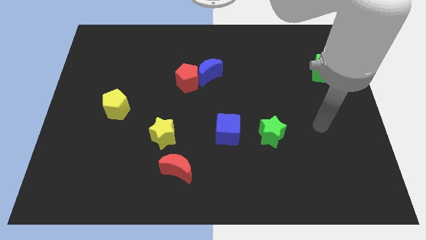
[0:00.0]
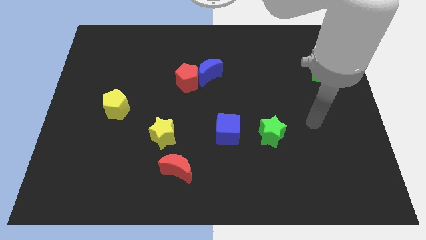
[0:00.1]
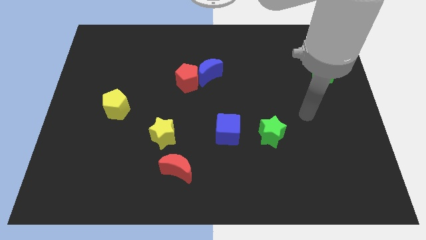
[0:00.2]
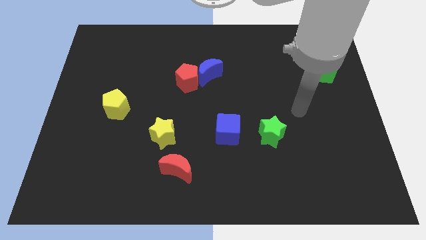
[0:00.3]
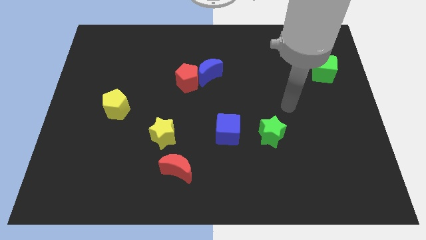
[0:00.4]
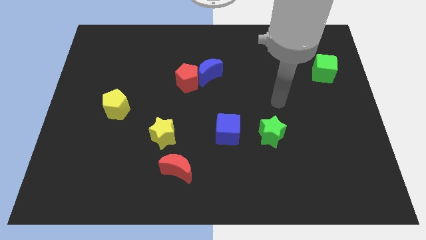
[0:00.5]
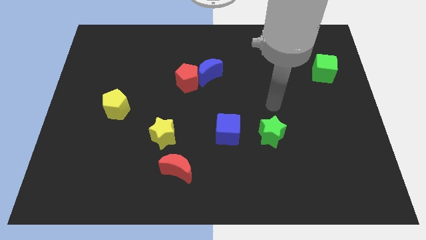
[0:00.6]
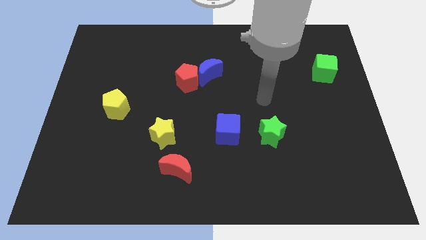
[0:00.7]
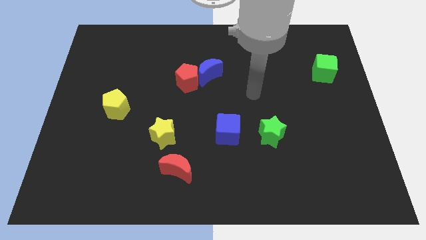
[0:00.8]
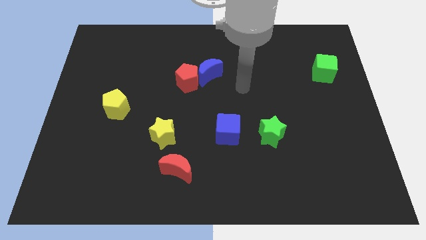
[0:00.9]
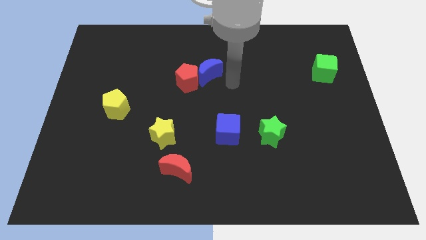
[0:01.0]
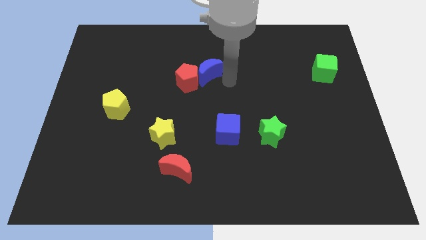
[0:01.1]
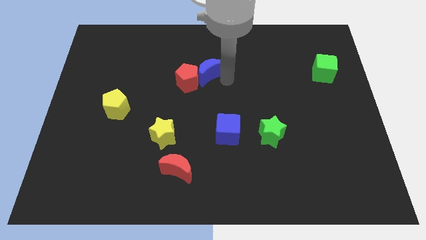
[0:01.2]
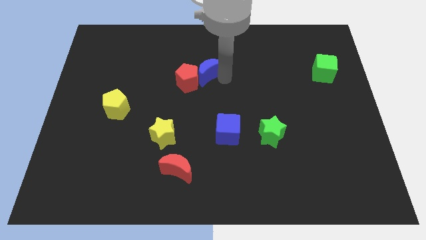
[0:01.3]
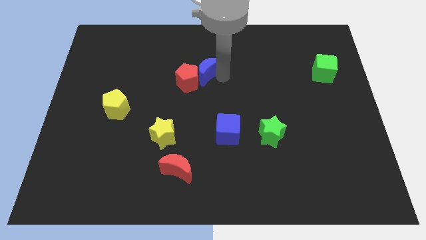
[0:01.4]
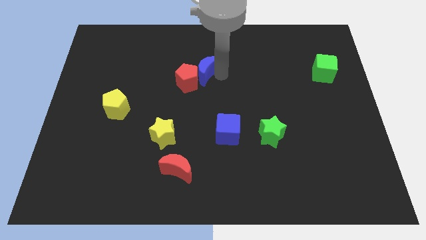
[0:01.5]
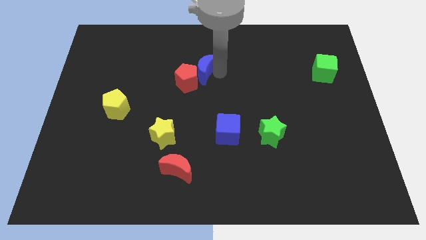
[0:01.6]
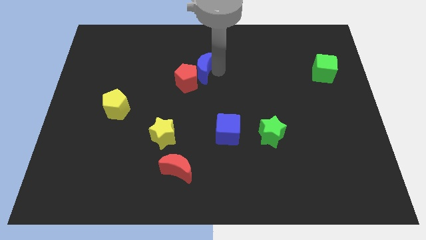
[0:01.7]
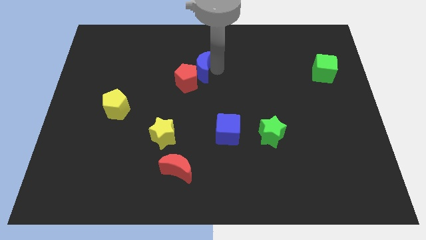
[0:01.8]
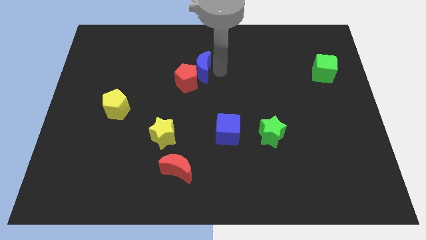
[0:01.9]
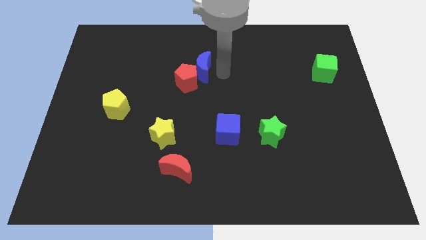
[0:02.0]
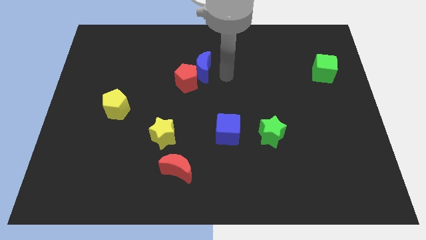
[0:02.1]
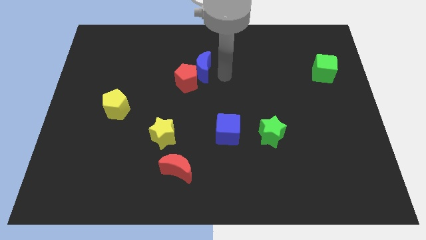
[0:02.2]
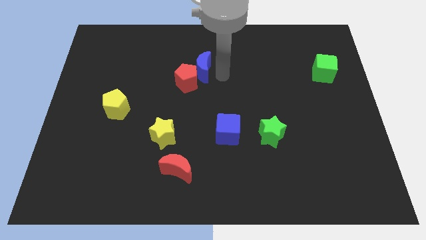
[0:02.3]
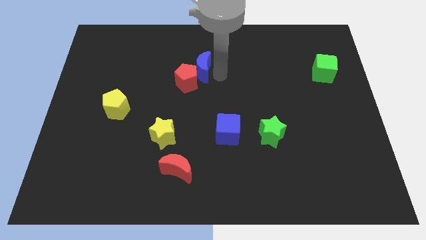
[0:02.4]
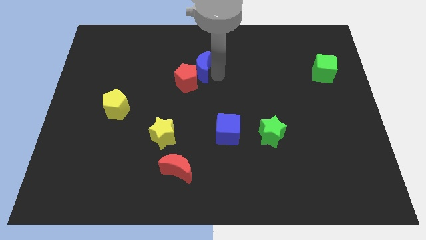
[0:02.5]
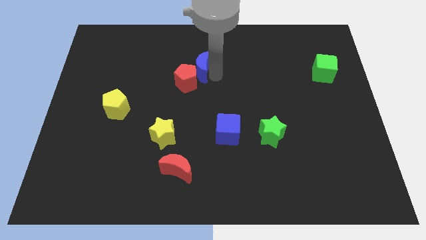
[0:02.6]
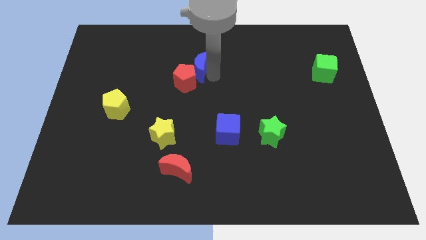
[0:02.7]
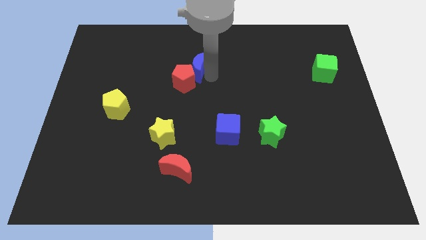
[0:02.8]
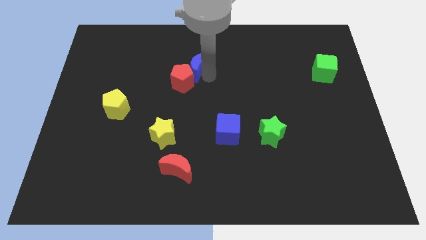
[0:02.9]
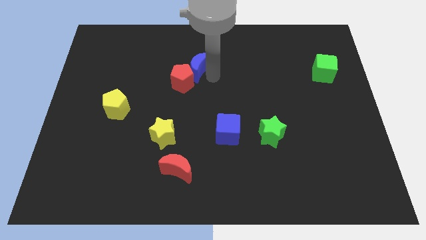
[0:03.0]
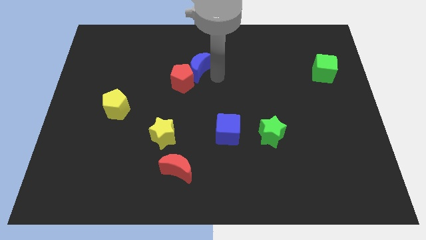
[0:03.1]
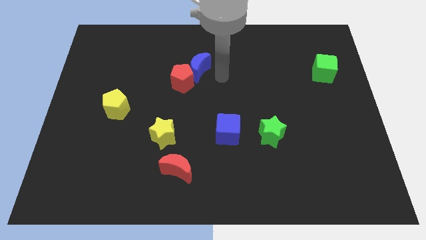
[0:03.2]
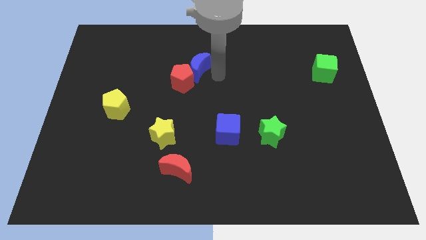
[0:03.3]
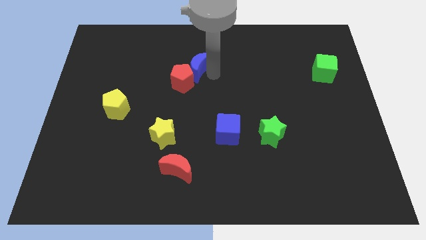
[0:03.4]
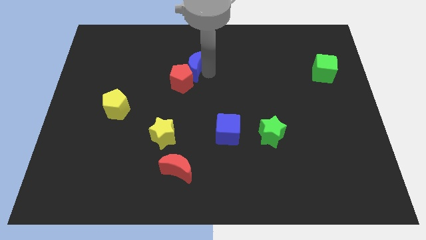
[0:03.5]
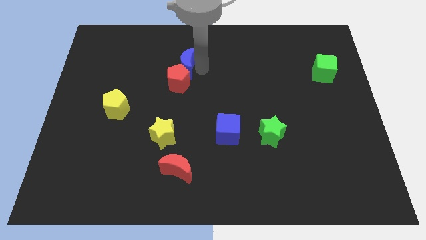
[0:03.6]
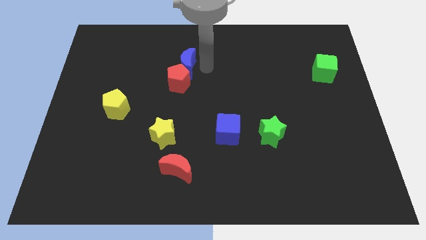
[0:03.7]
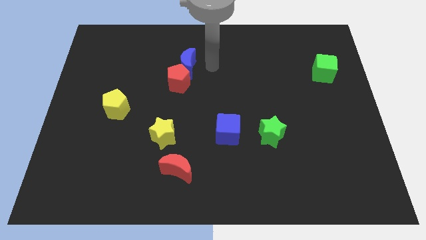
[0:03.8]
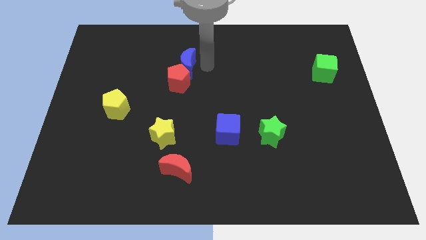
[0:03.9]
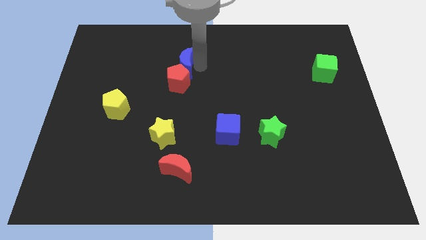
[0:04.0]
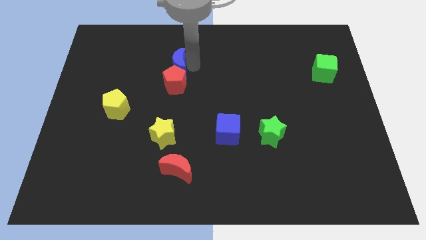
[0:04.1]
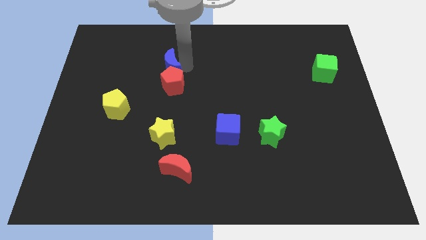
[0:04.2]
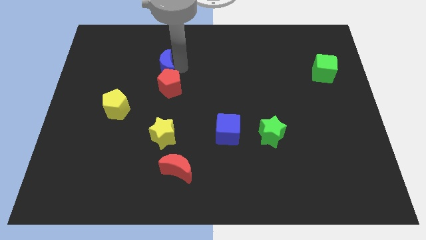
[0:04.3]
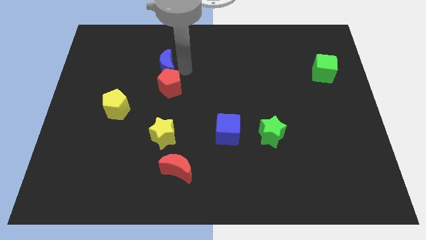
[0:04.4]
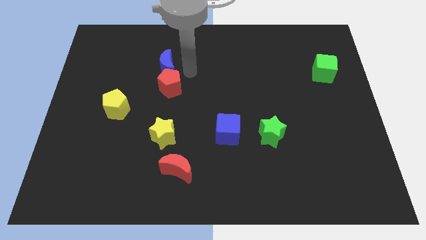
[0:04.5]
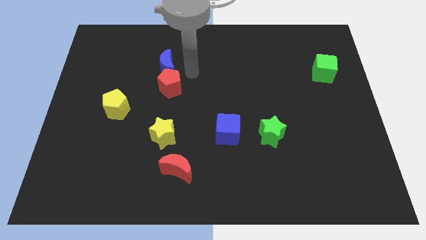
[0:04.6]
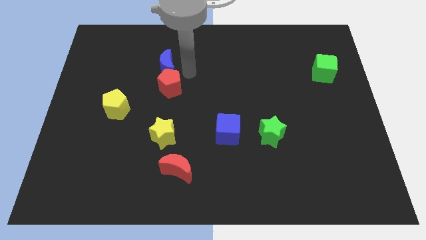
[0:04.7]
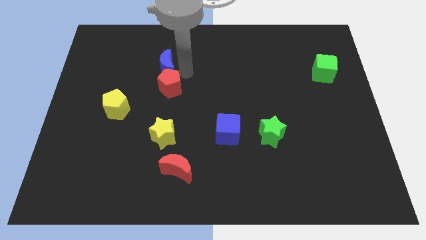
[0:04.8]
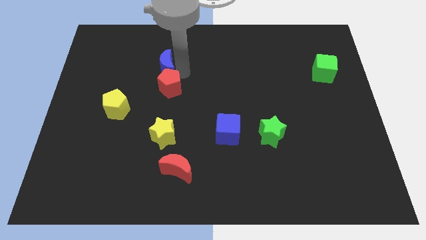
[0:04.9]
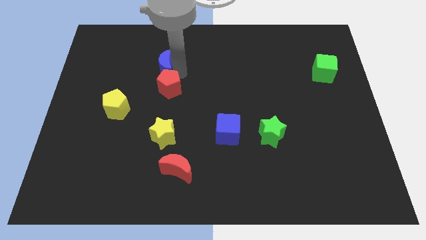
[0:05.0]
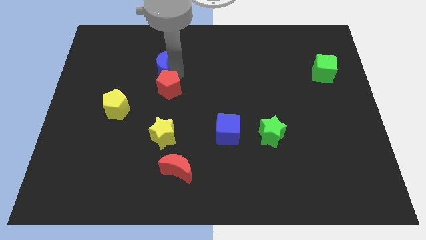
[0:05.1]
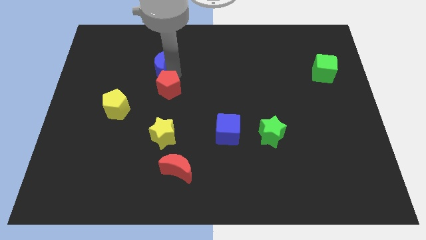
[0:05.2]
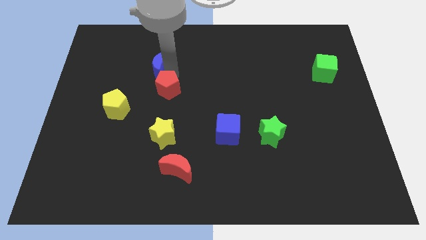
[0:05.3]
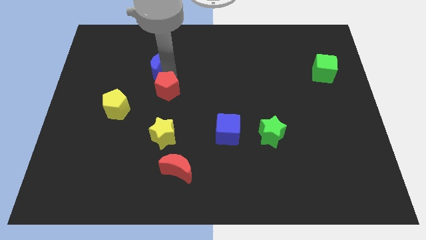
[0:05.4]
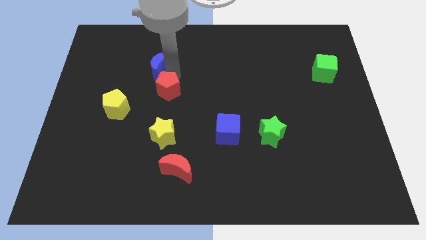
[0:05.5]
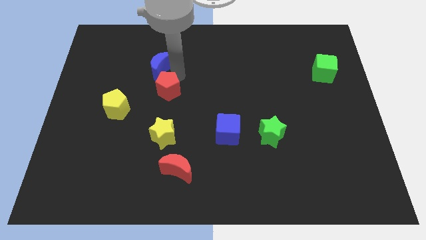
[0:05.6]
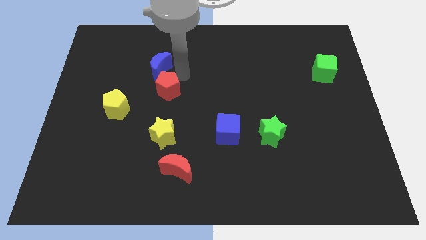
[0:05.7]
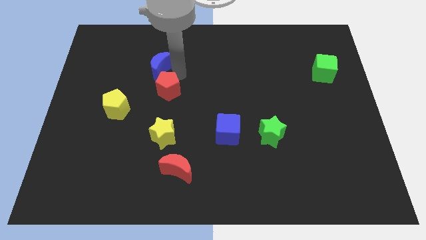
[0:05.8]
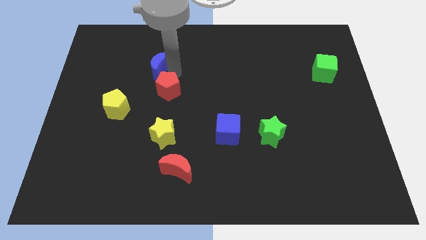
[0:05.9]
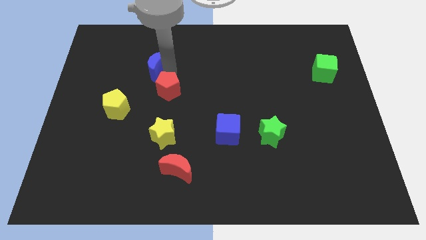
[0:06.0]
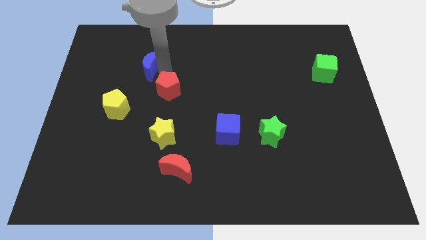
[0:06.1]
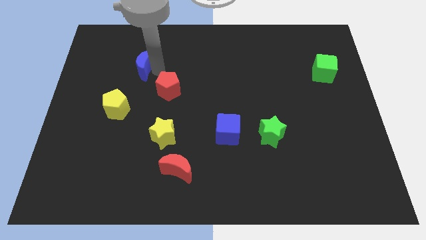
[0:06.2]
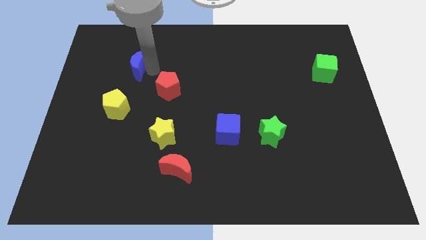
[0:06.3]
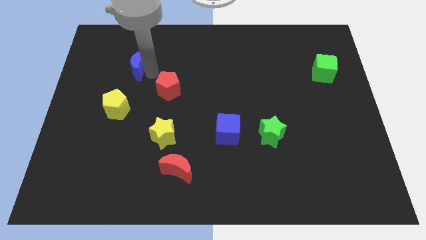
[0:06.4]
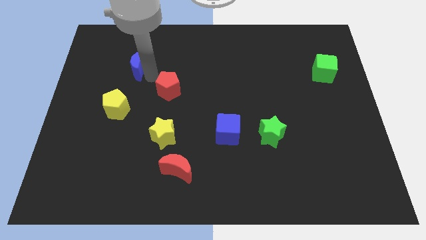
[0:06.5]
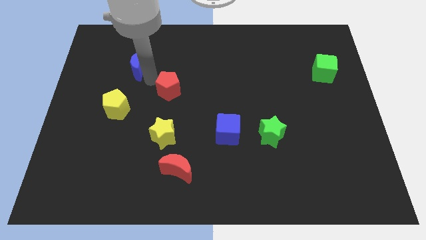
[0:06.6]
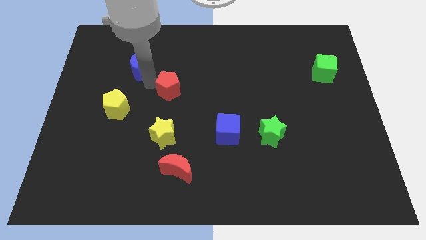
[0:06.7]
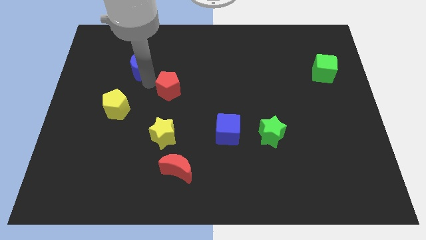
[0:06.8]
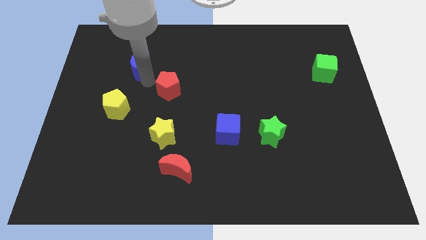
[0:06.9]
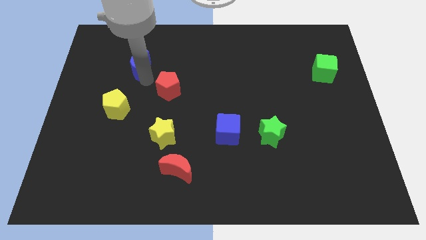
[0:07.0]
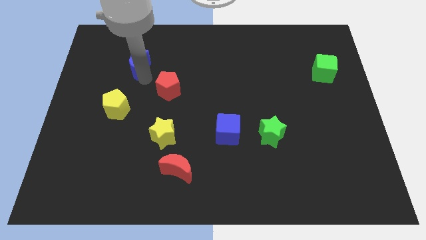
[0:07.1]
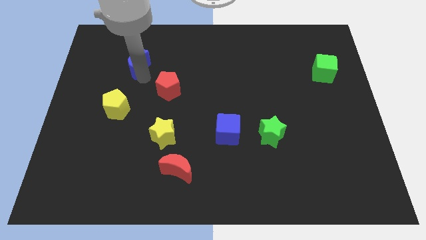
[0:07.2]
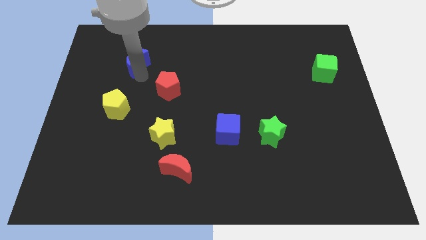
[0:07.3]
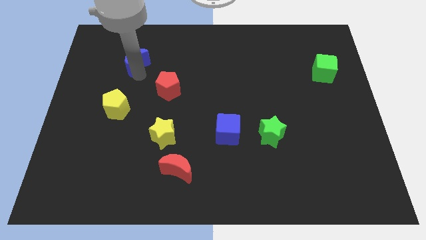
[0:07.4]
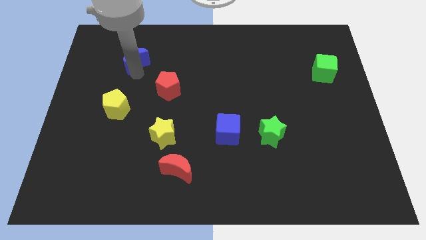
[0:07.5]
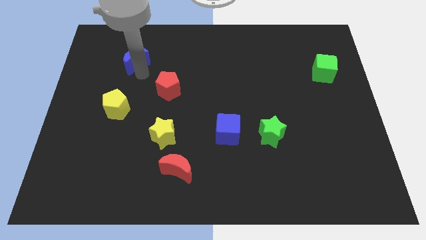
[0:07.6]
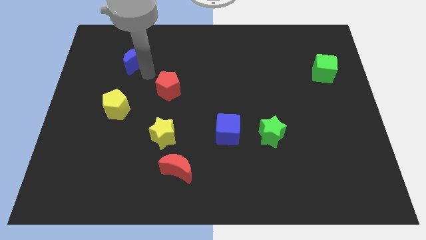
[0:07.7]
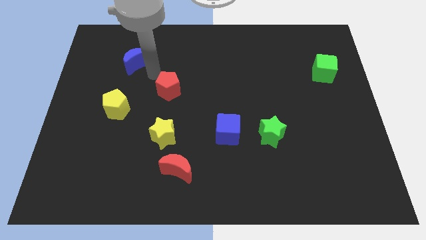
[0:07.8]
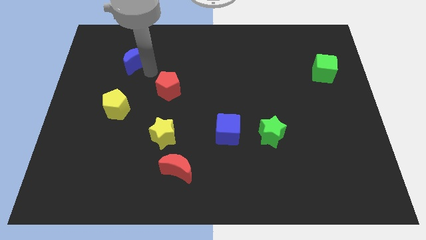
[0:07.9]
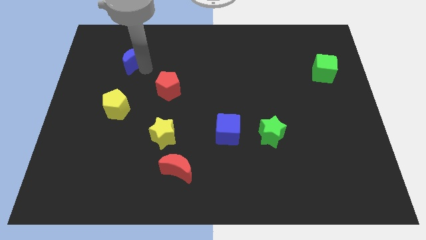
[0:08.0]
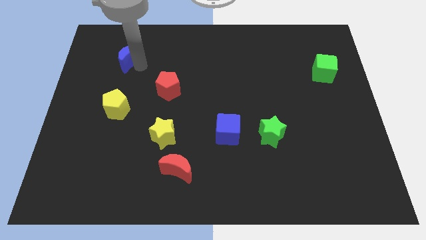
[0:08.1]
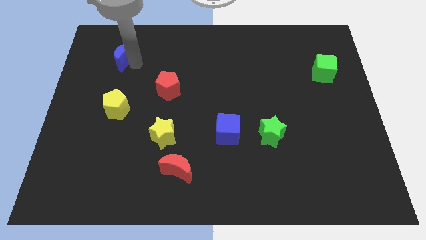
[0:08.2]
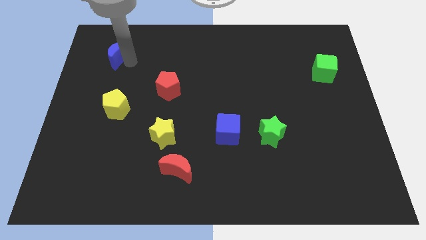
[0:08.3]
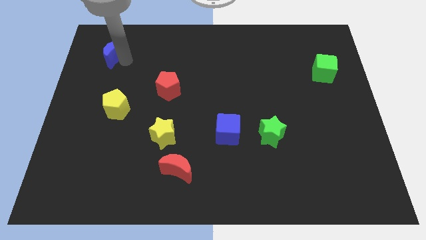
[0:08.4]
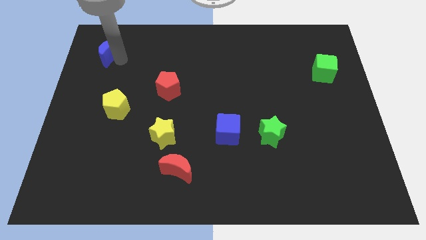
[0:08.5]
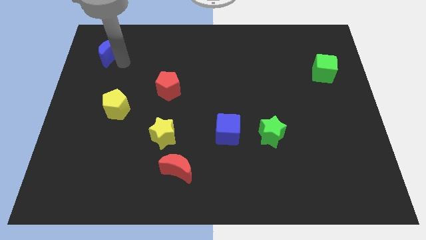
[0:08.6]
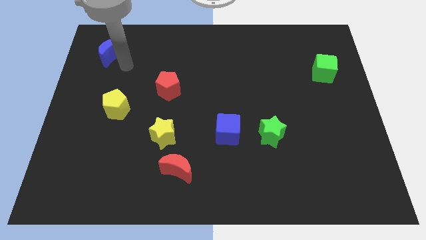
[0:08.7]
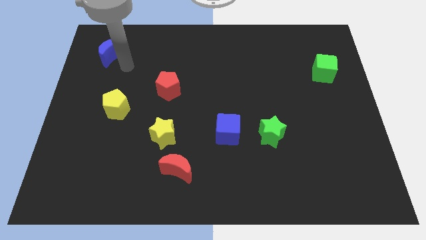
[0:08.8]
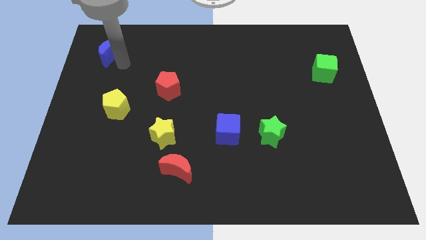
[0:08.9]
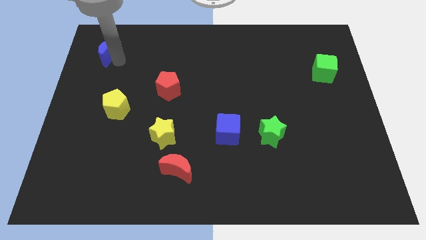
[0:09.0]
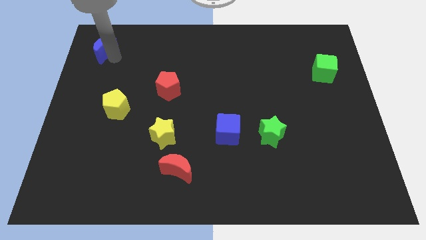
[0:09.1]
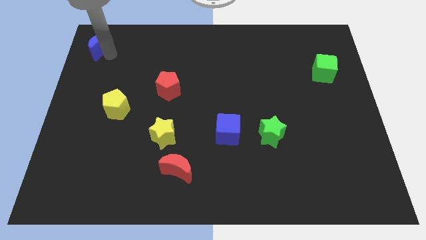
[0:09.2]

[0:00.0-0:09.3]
slide the blue moon to the top left of the board
